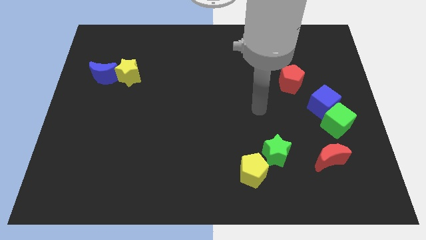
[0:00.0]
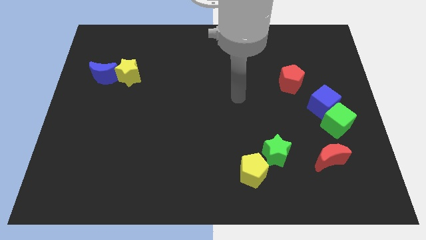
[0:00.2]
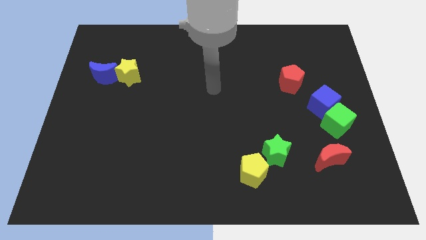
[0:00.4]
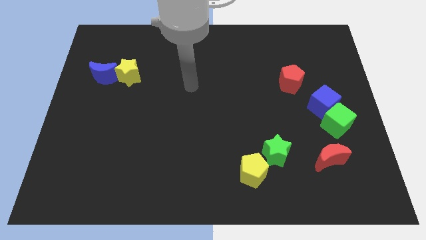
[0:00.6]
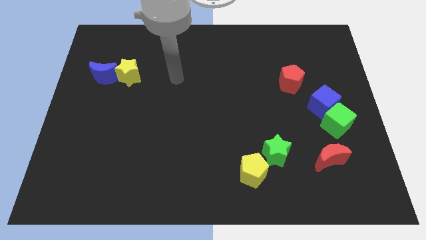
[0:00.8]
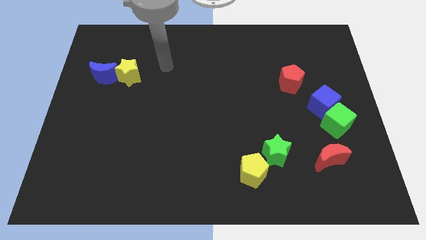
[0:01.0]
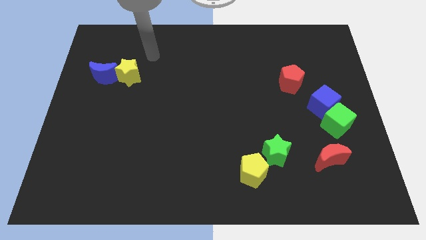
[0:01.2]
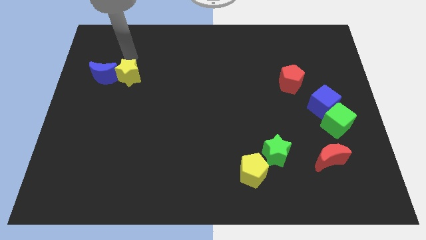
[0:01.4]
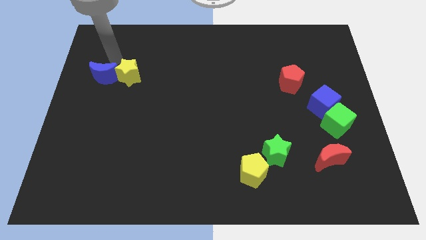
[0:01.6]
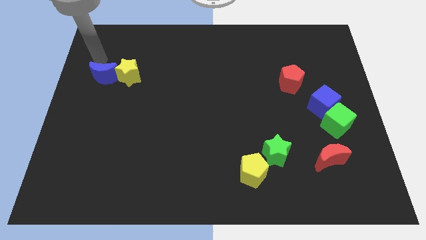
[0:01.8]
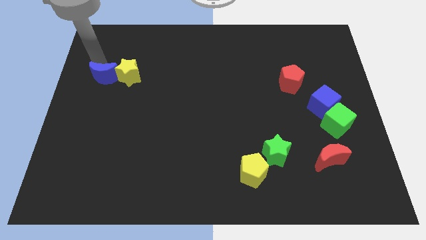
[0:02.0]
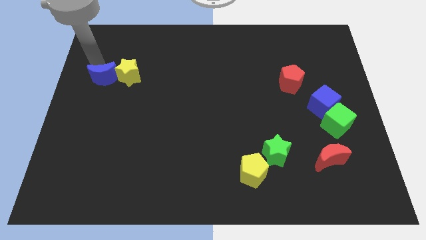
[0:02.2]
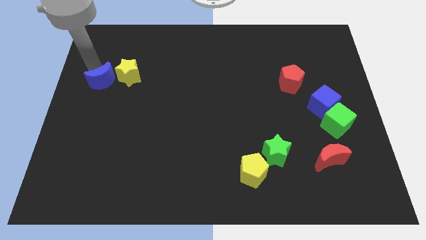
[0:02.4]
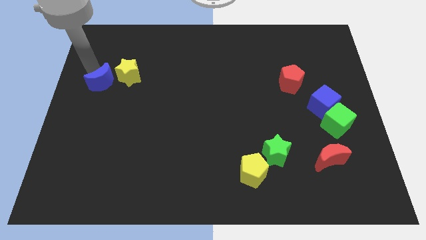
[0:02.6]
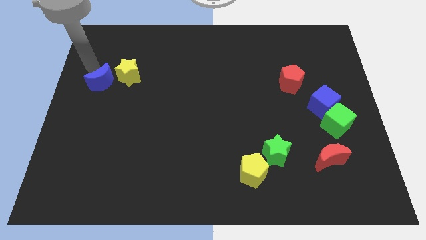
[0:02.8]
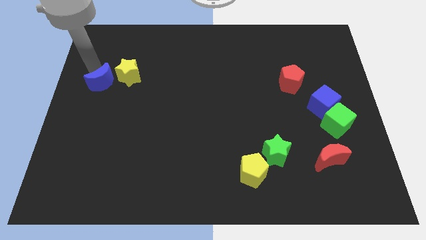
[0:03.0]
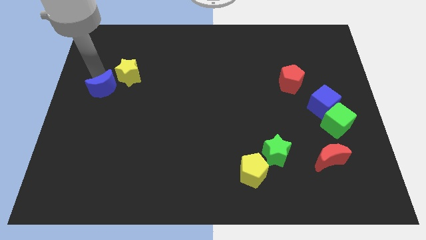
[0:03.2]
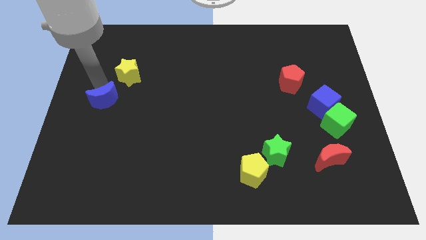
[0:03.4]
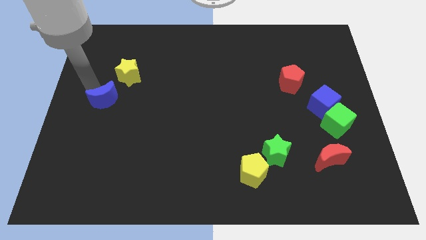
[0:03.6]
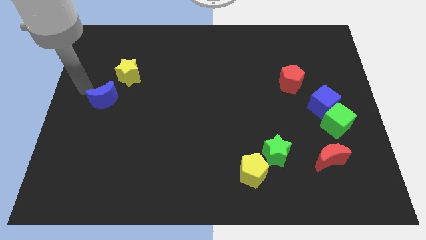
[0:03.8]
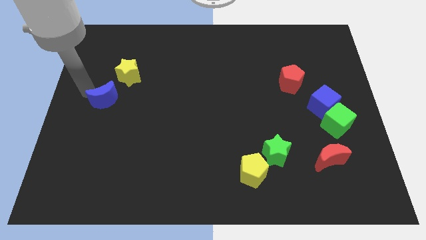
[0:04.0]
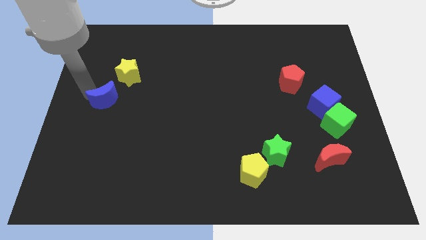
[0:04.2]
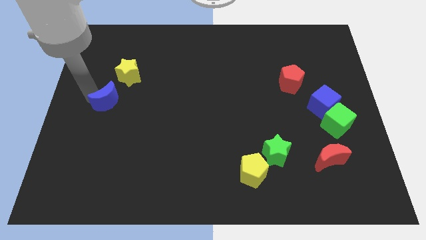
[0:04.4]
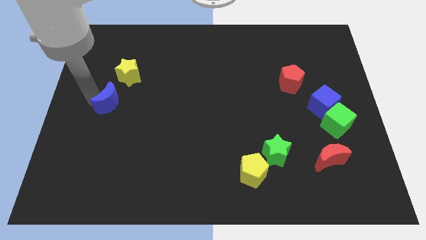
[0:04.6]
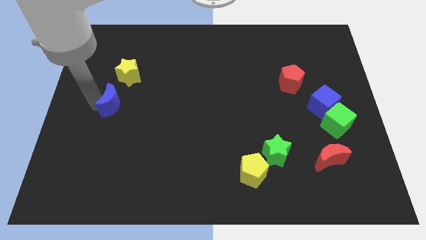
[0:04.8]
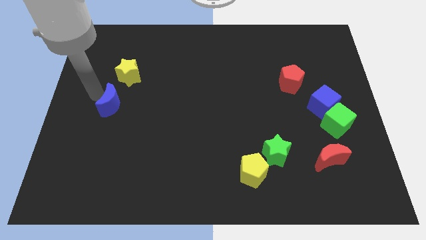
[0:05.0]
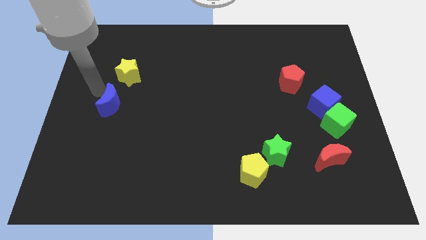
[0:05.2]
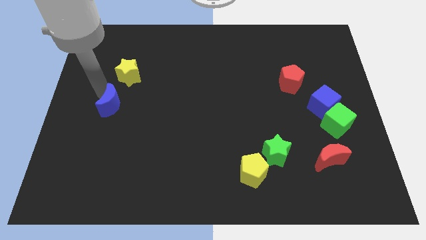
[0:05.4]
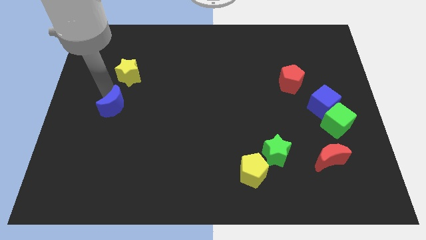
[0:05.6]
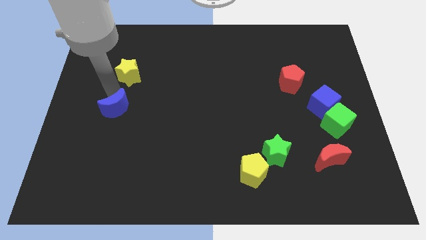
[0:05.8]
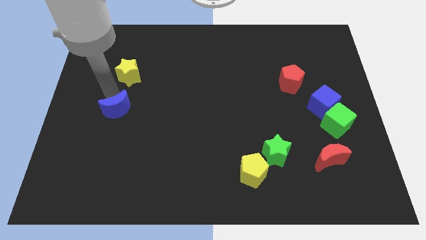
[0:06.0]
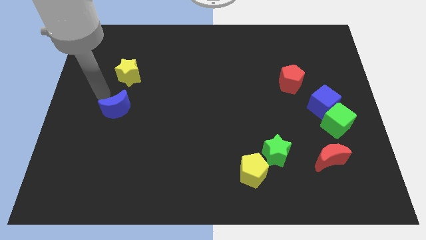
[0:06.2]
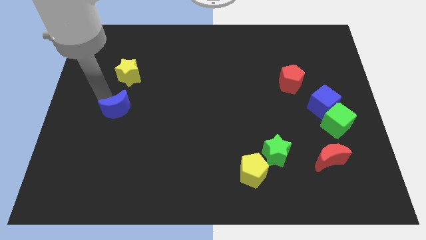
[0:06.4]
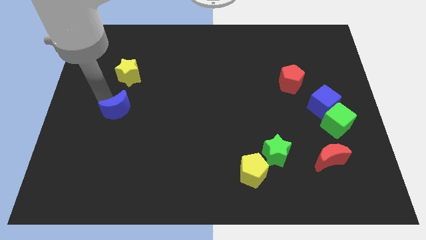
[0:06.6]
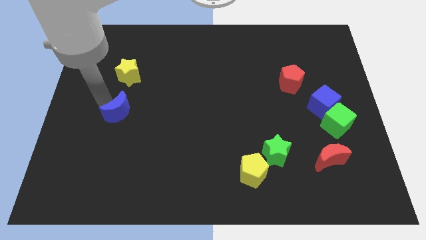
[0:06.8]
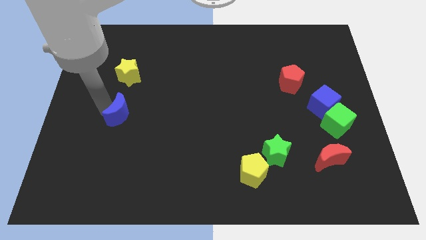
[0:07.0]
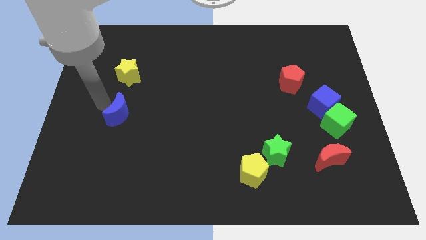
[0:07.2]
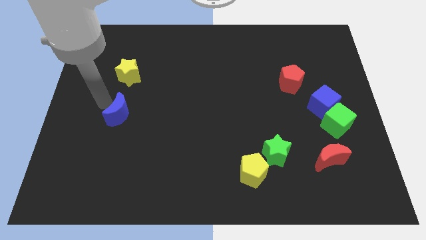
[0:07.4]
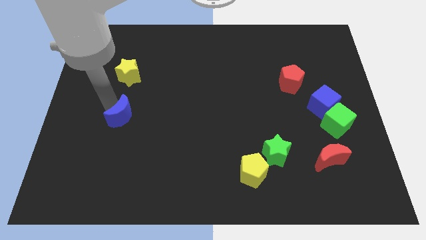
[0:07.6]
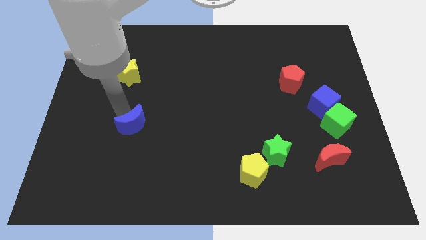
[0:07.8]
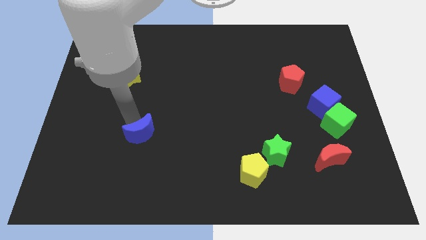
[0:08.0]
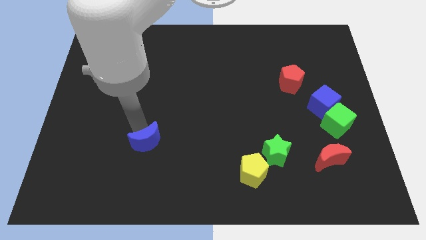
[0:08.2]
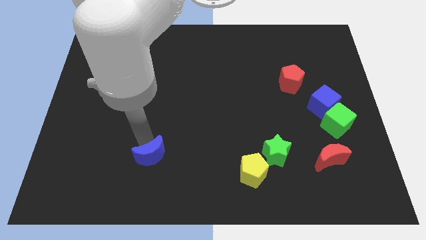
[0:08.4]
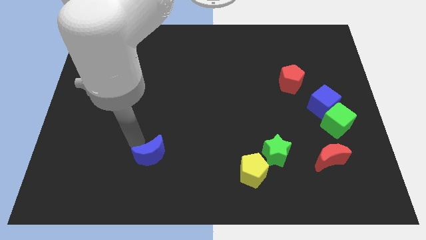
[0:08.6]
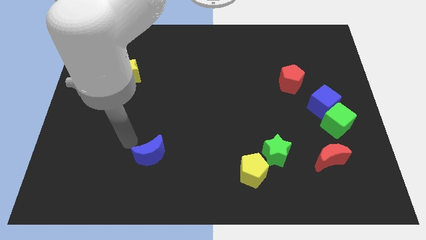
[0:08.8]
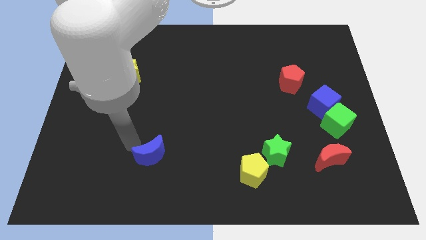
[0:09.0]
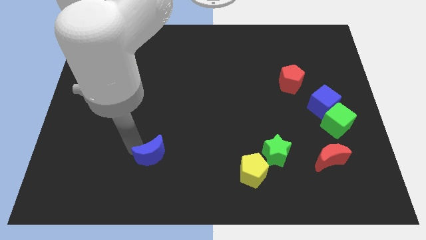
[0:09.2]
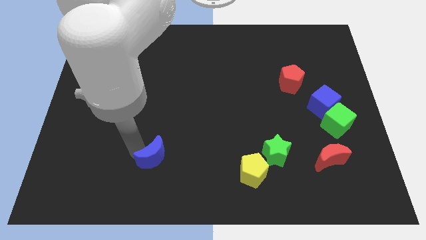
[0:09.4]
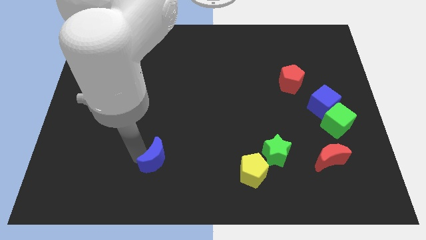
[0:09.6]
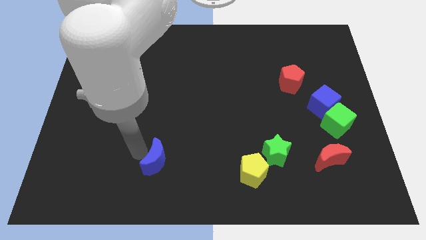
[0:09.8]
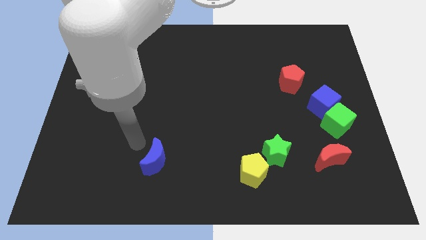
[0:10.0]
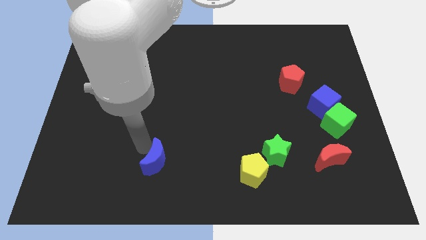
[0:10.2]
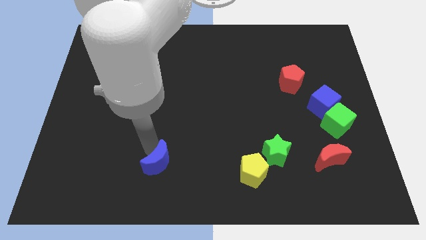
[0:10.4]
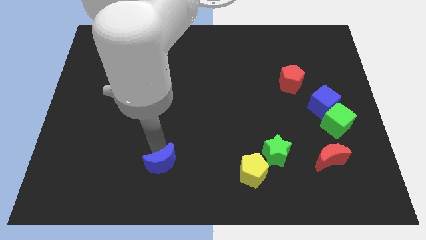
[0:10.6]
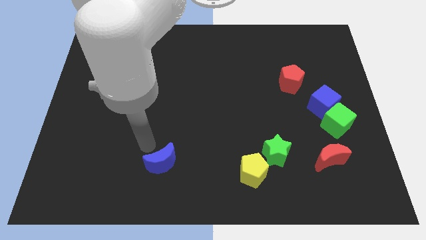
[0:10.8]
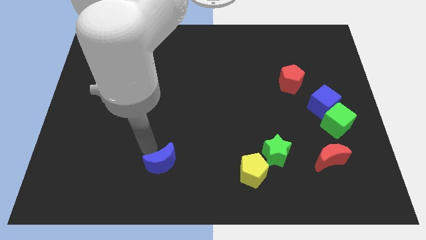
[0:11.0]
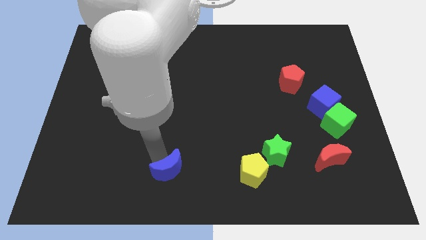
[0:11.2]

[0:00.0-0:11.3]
put the blue moon to the bottom side
